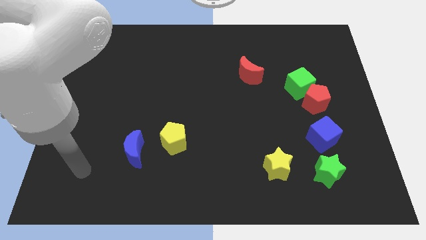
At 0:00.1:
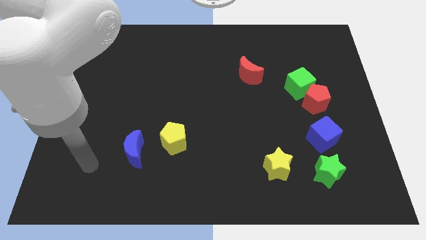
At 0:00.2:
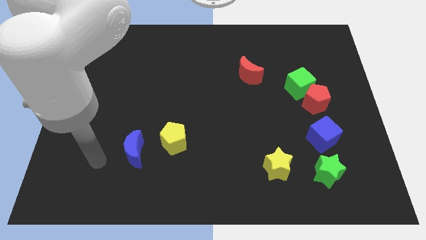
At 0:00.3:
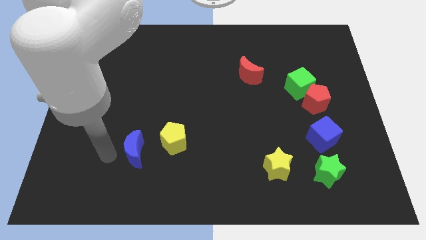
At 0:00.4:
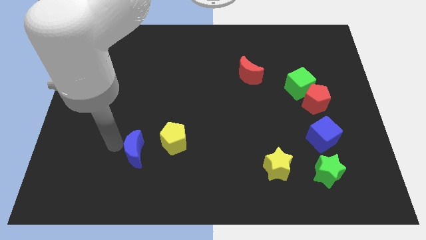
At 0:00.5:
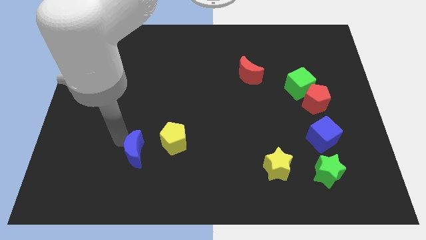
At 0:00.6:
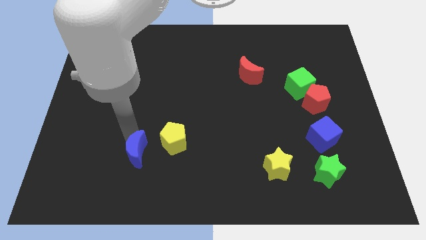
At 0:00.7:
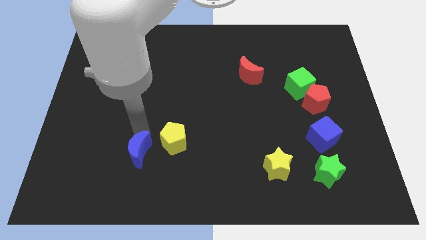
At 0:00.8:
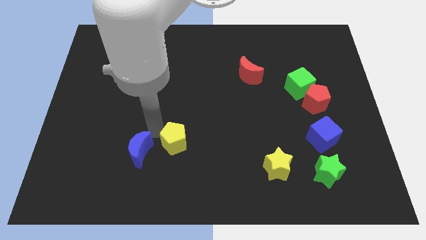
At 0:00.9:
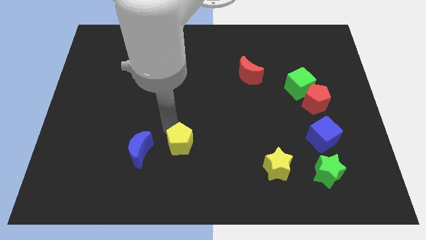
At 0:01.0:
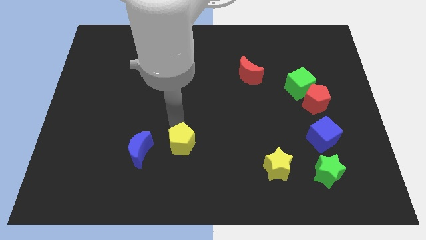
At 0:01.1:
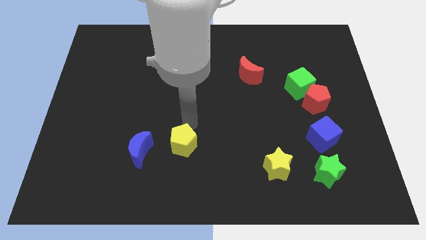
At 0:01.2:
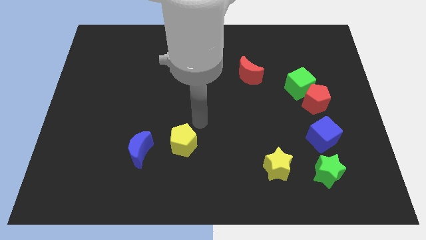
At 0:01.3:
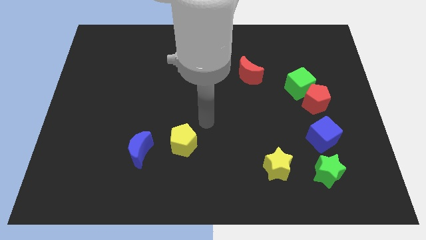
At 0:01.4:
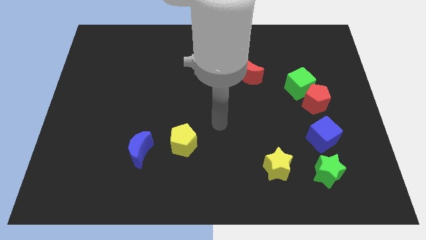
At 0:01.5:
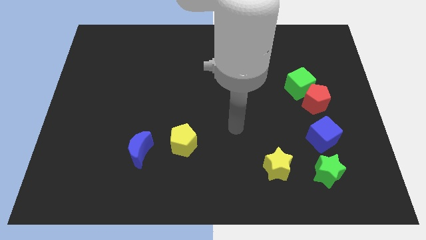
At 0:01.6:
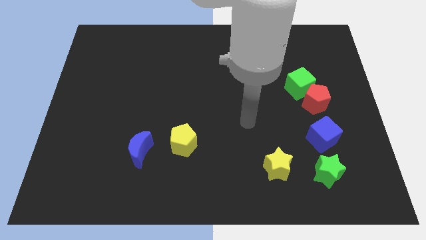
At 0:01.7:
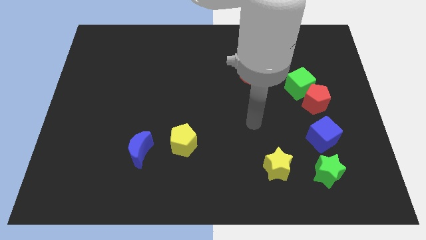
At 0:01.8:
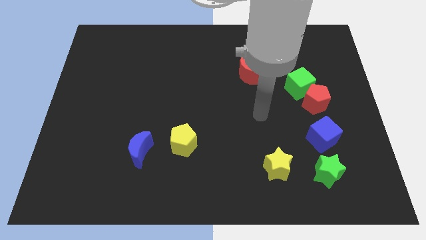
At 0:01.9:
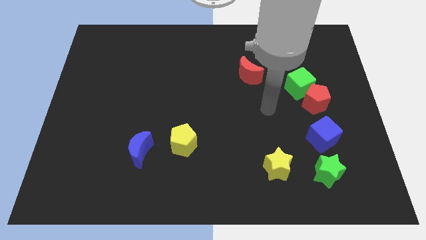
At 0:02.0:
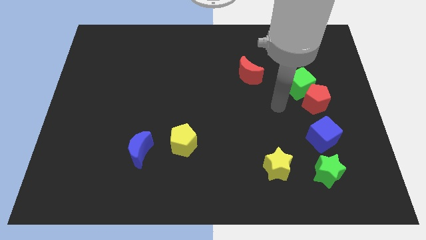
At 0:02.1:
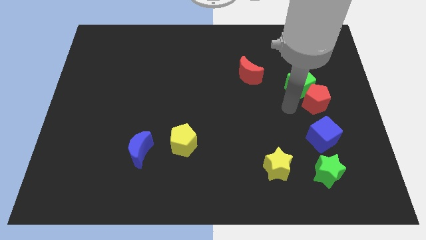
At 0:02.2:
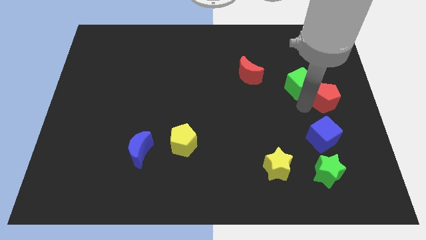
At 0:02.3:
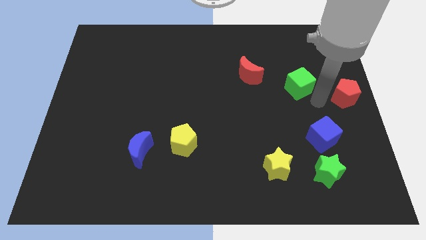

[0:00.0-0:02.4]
move the green cube away from the red pentagon

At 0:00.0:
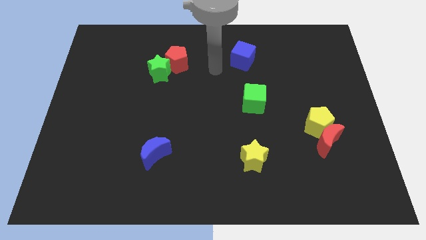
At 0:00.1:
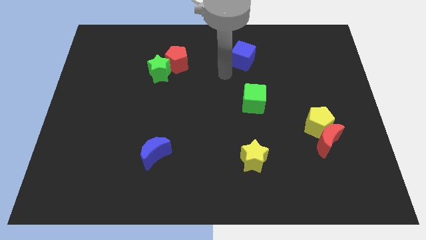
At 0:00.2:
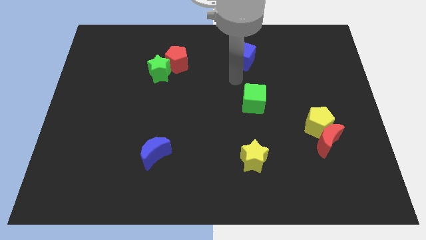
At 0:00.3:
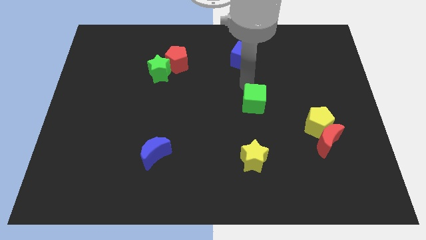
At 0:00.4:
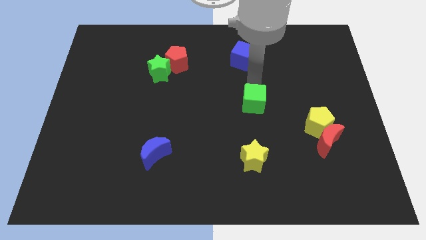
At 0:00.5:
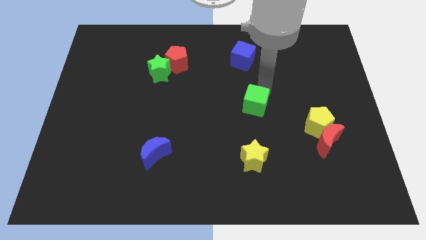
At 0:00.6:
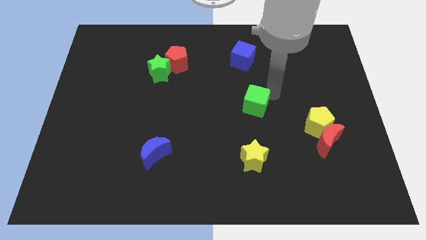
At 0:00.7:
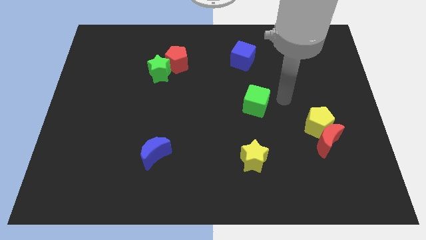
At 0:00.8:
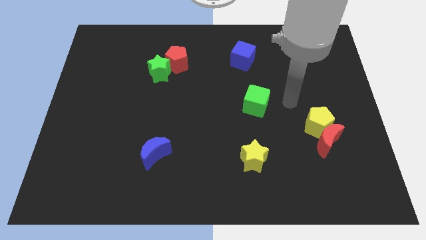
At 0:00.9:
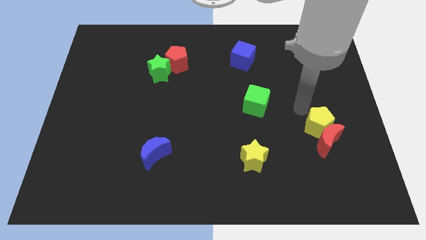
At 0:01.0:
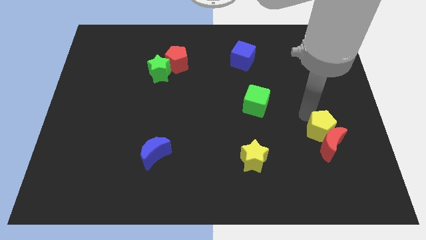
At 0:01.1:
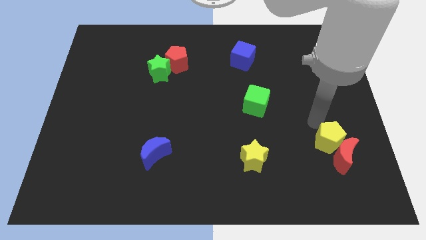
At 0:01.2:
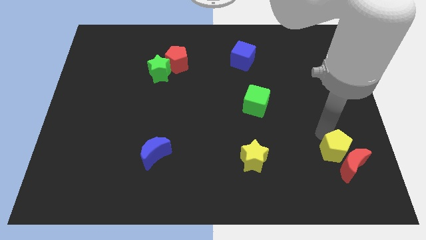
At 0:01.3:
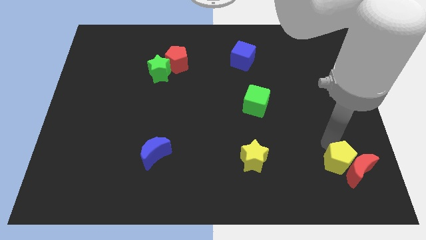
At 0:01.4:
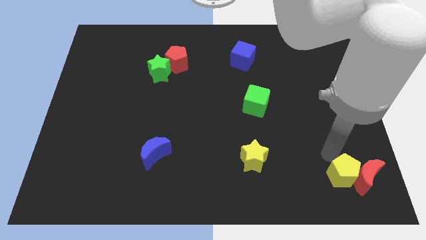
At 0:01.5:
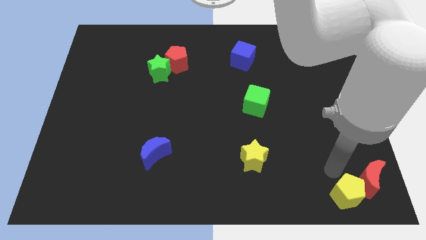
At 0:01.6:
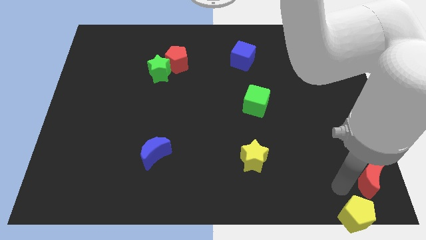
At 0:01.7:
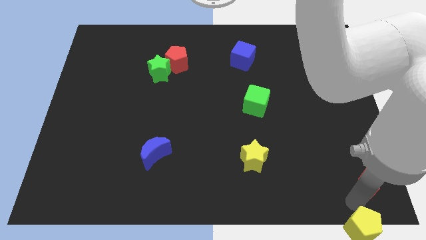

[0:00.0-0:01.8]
move the red moon away from the yellow pentagon

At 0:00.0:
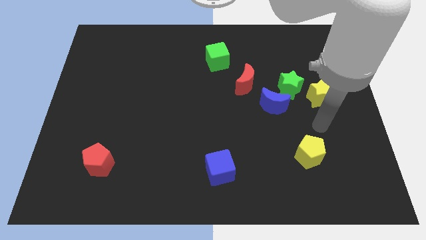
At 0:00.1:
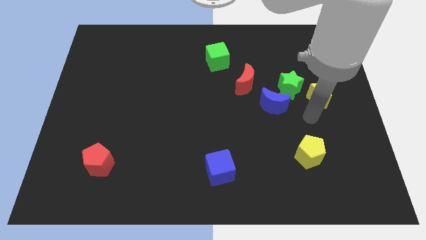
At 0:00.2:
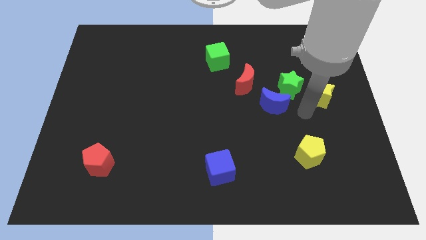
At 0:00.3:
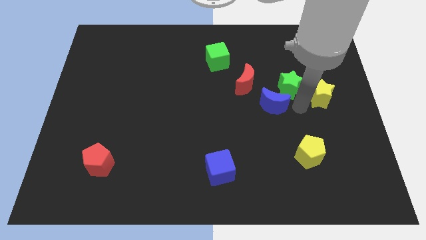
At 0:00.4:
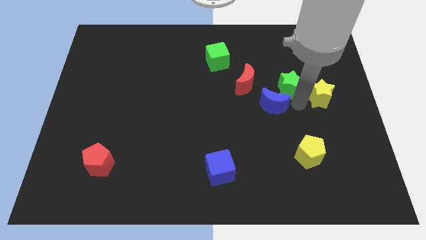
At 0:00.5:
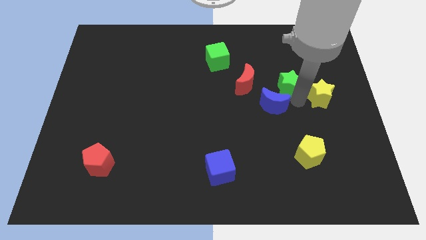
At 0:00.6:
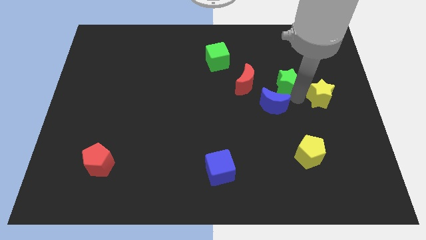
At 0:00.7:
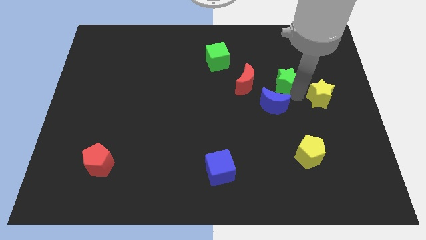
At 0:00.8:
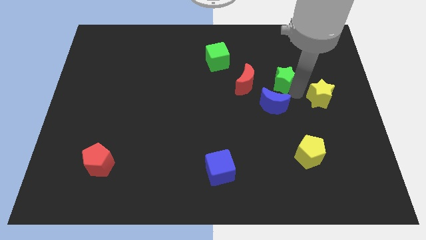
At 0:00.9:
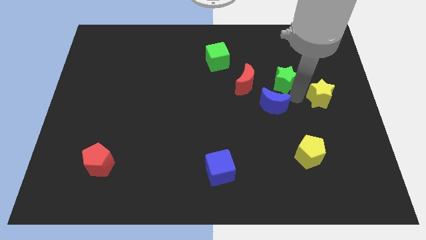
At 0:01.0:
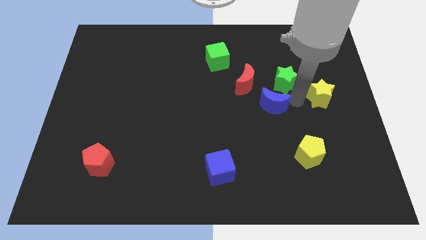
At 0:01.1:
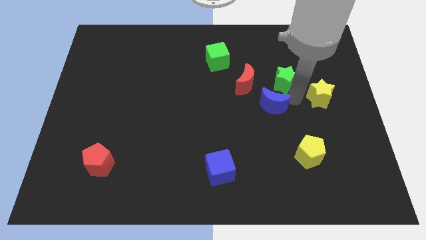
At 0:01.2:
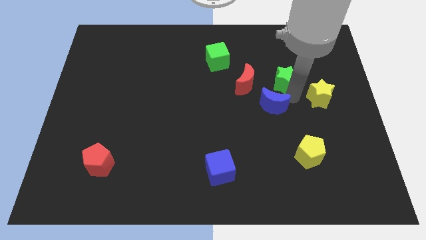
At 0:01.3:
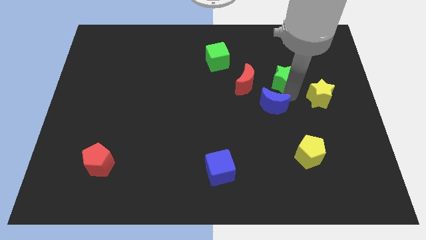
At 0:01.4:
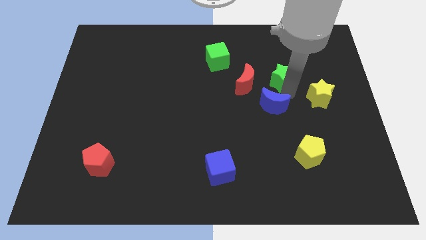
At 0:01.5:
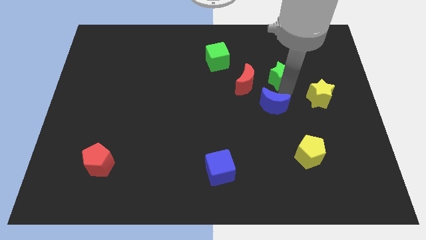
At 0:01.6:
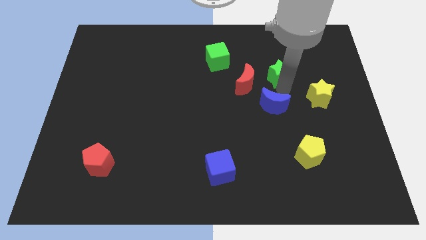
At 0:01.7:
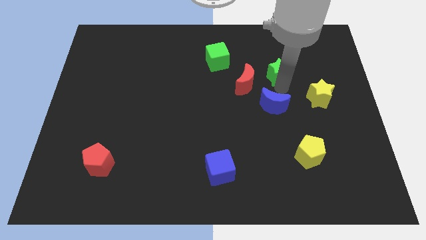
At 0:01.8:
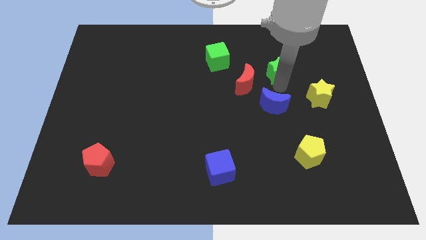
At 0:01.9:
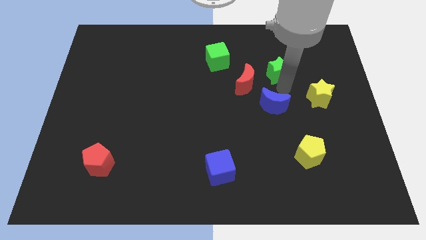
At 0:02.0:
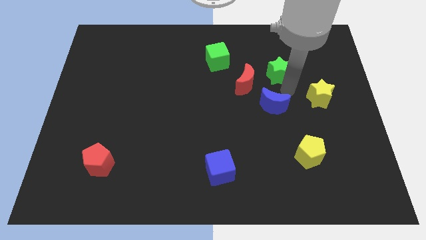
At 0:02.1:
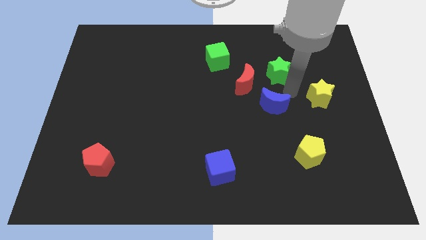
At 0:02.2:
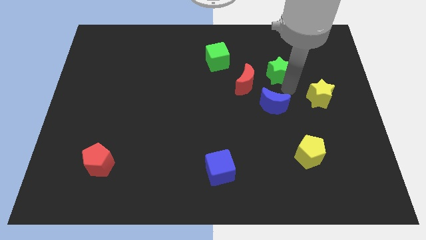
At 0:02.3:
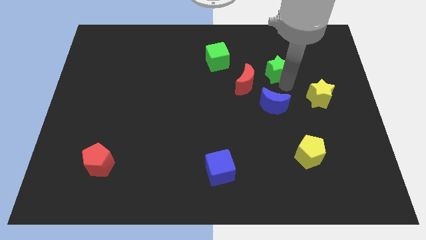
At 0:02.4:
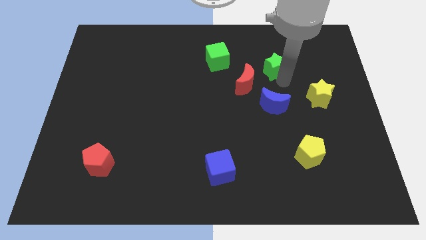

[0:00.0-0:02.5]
move the green star away from the blue moon and yellow star

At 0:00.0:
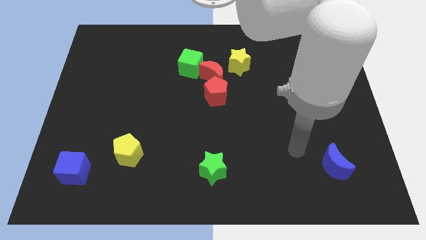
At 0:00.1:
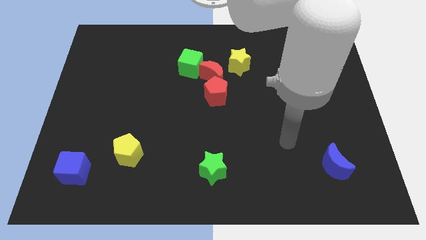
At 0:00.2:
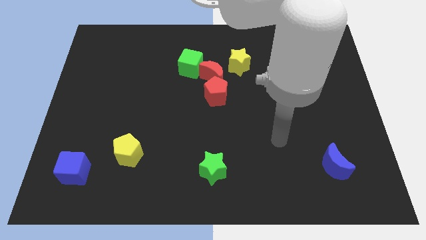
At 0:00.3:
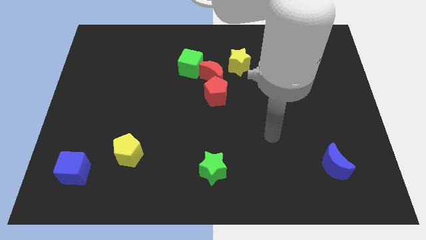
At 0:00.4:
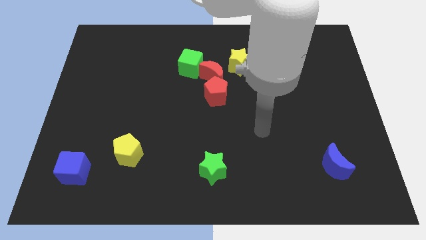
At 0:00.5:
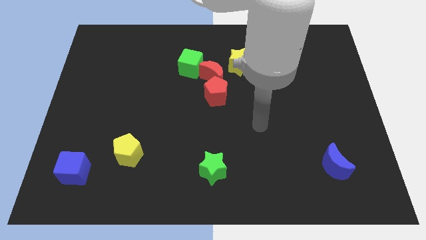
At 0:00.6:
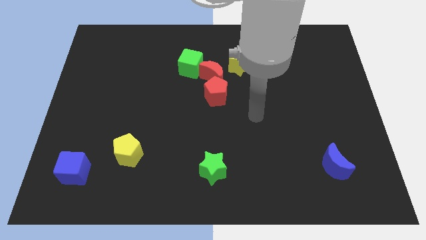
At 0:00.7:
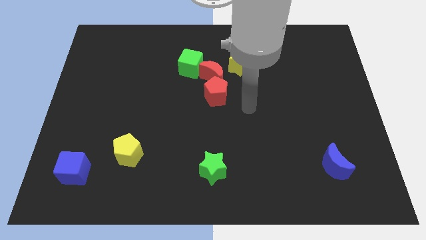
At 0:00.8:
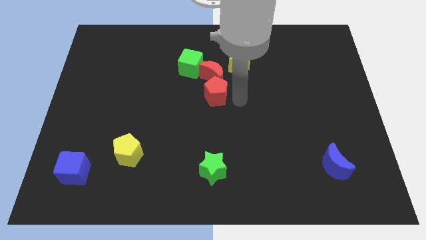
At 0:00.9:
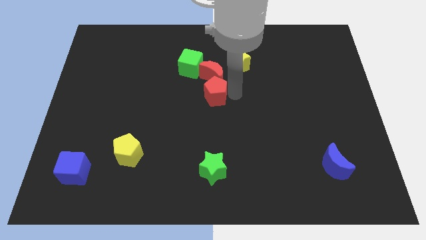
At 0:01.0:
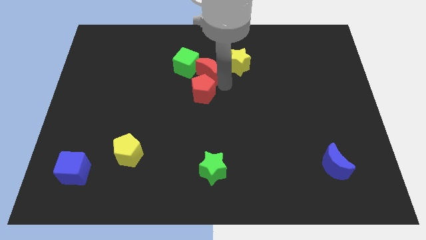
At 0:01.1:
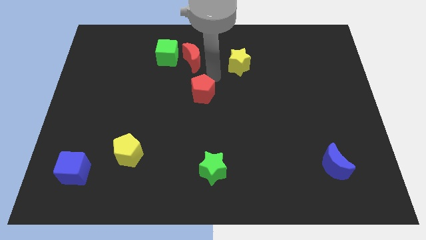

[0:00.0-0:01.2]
separate the red pentagon from the red moon

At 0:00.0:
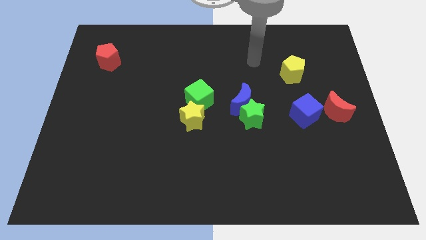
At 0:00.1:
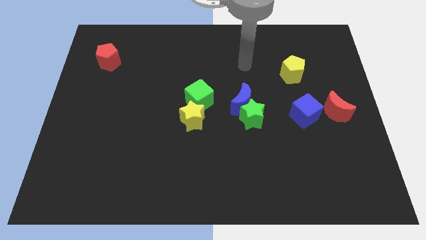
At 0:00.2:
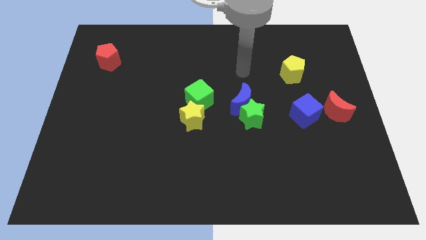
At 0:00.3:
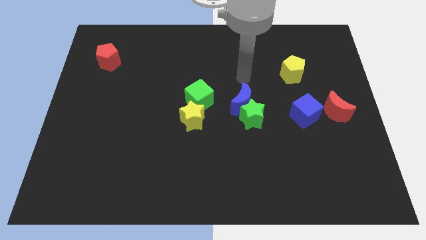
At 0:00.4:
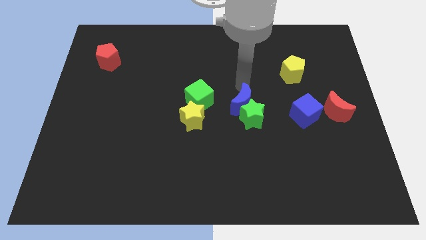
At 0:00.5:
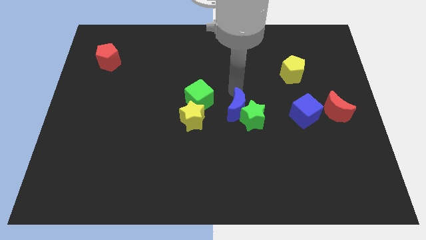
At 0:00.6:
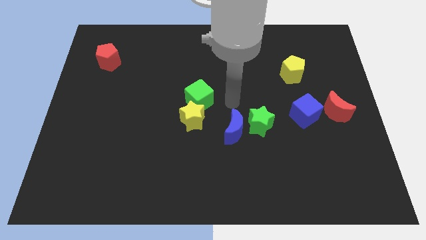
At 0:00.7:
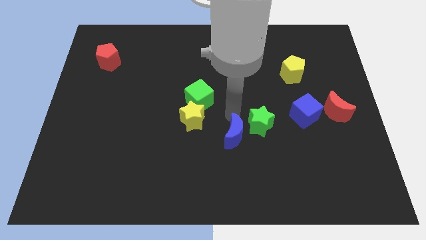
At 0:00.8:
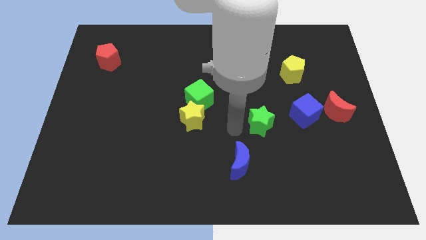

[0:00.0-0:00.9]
pull the green star apart from the blue moon

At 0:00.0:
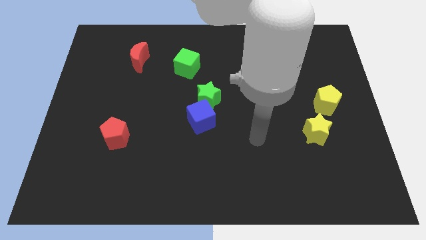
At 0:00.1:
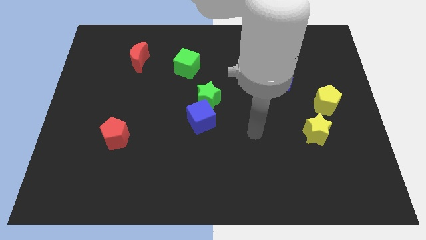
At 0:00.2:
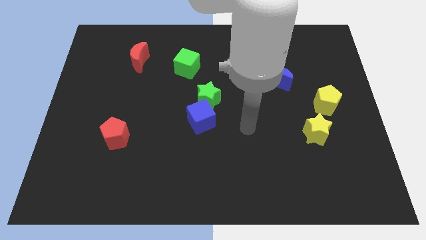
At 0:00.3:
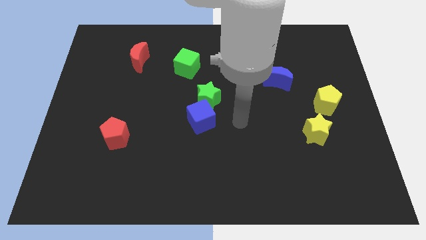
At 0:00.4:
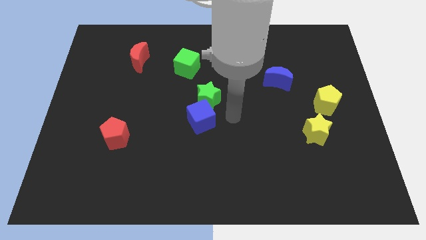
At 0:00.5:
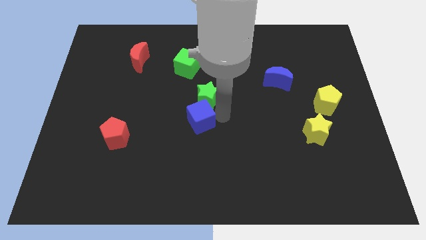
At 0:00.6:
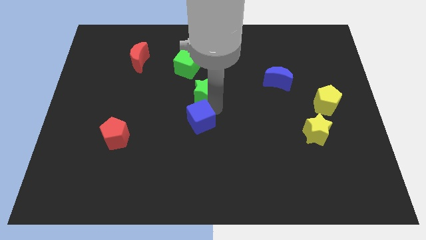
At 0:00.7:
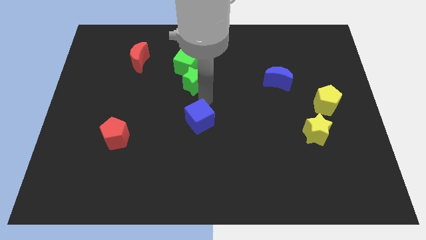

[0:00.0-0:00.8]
move the blue cube away from the green star
